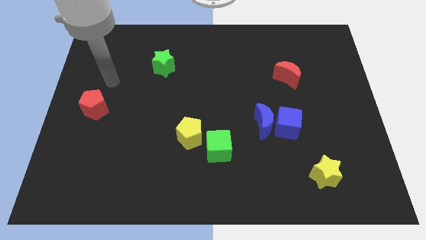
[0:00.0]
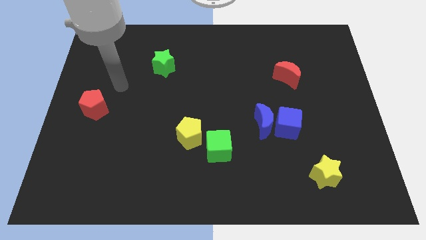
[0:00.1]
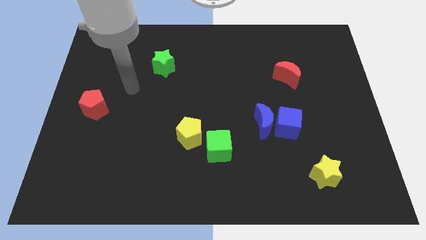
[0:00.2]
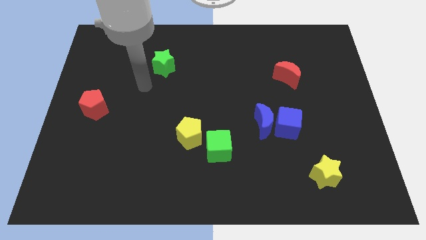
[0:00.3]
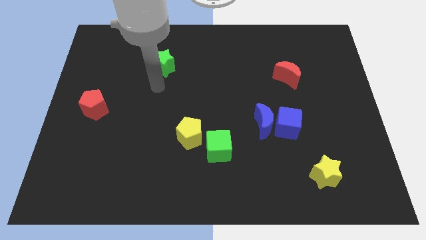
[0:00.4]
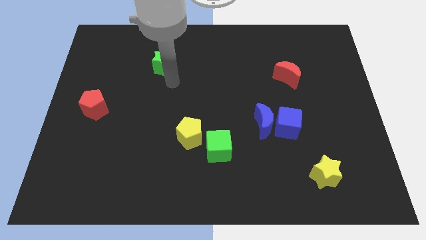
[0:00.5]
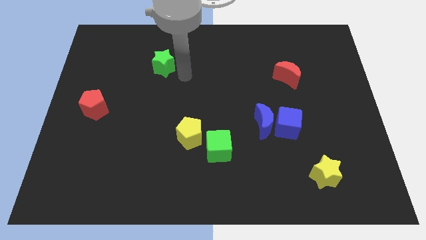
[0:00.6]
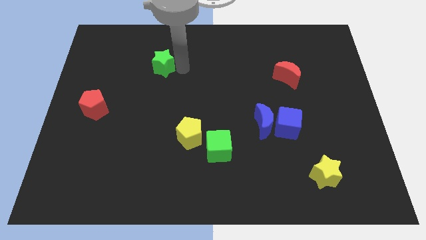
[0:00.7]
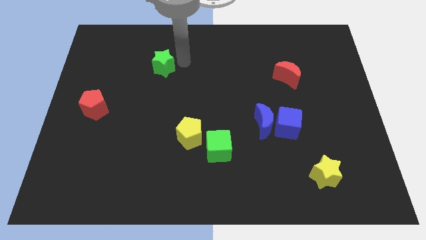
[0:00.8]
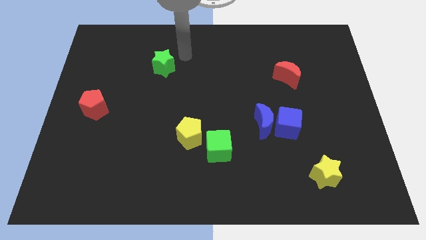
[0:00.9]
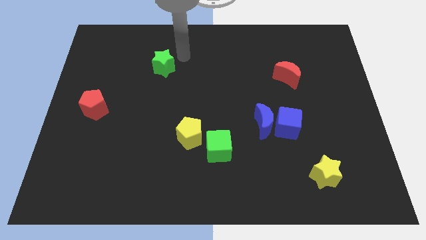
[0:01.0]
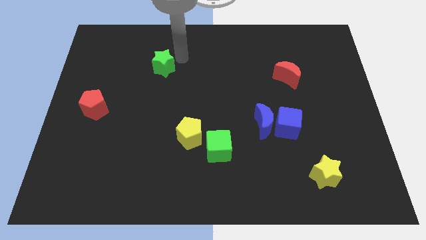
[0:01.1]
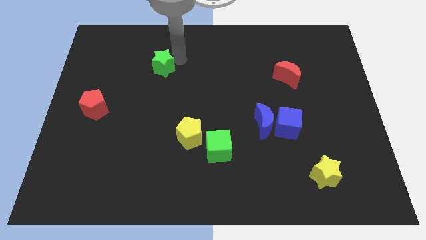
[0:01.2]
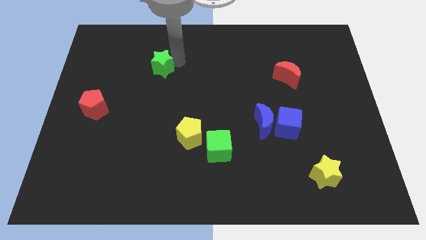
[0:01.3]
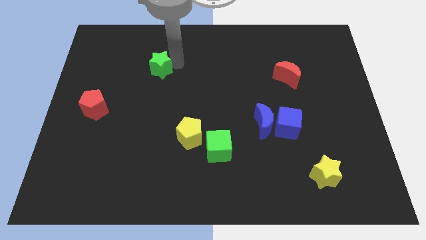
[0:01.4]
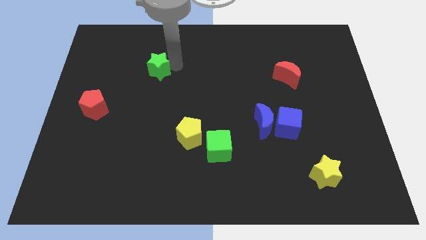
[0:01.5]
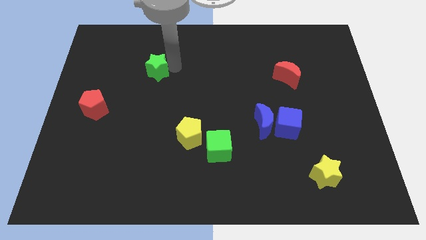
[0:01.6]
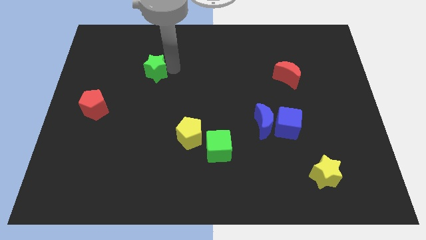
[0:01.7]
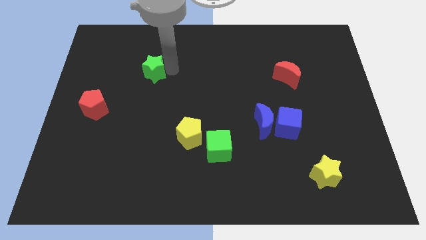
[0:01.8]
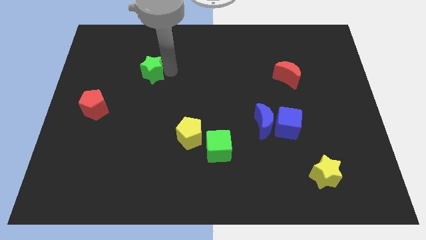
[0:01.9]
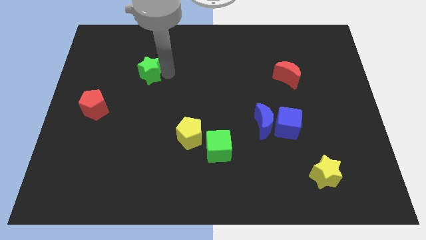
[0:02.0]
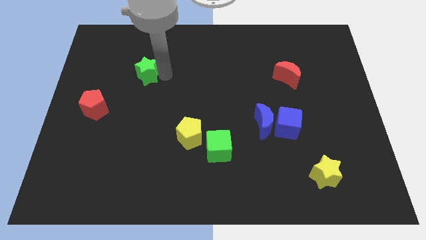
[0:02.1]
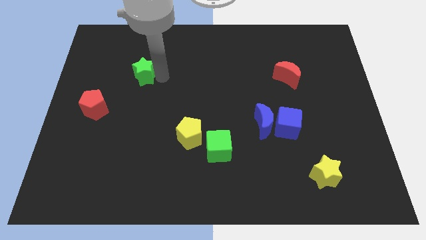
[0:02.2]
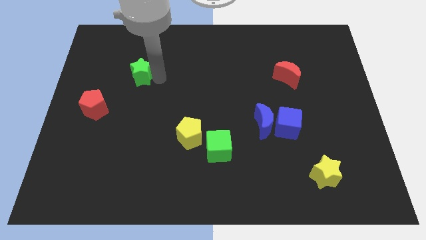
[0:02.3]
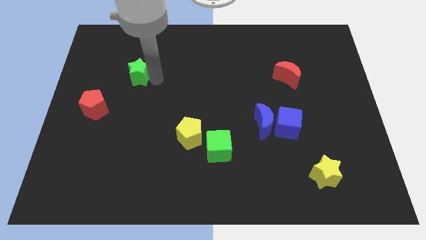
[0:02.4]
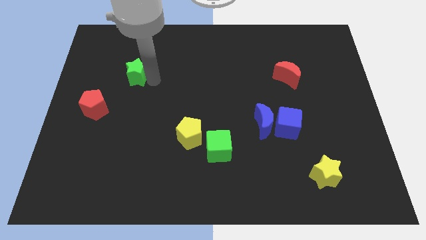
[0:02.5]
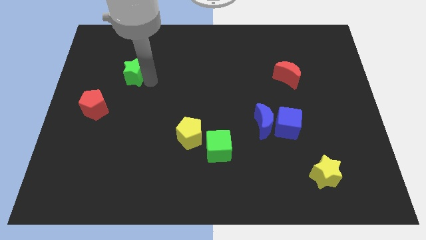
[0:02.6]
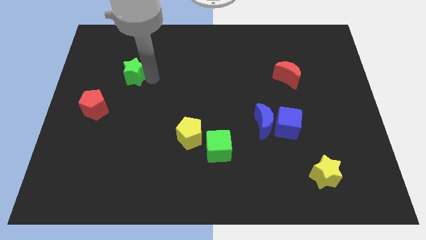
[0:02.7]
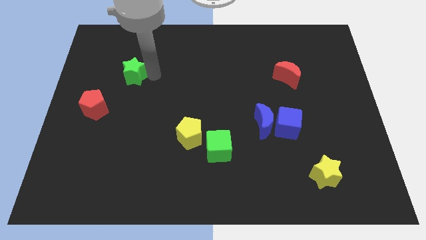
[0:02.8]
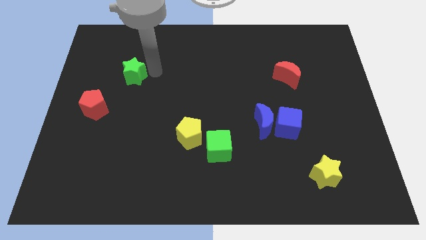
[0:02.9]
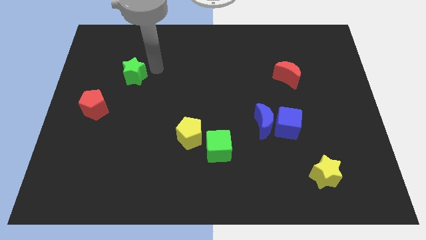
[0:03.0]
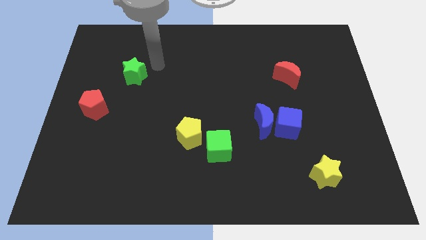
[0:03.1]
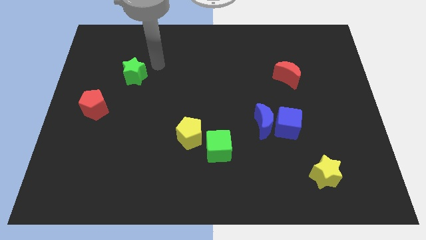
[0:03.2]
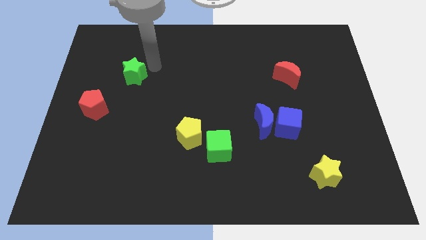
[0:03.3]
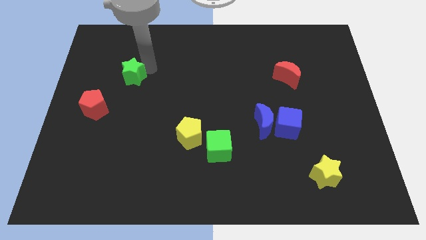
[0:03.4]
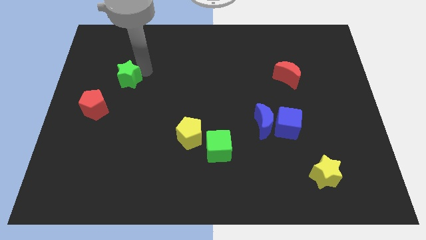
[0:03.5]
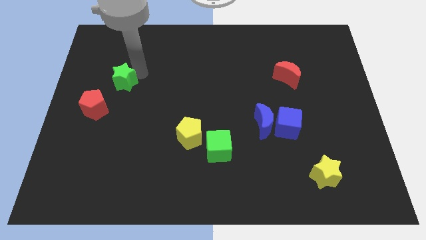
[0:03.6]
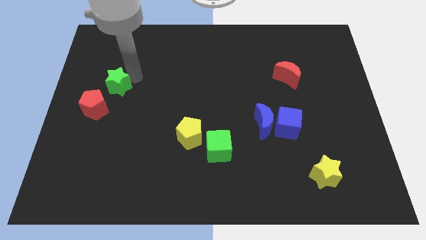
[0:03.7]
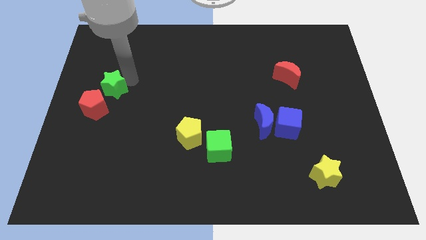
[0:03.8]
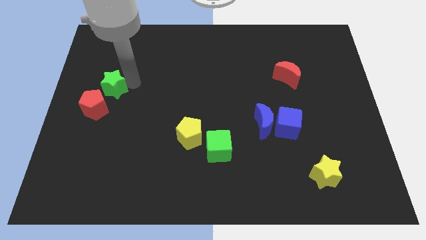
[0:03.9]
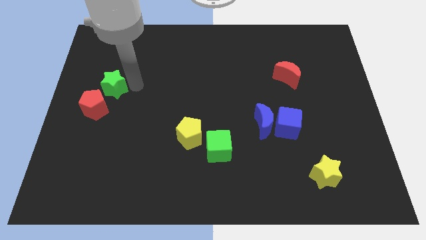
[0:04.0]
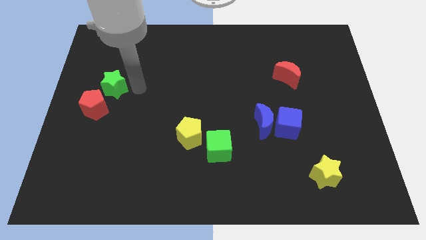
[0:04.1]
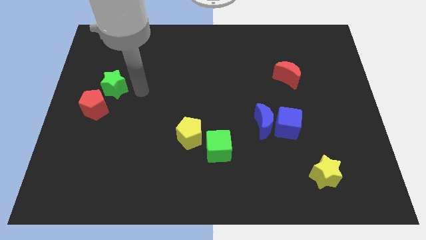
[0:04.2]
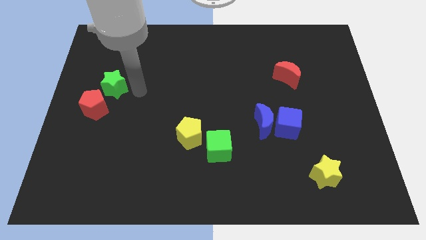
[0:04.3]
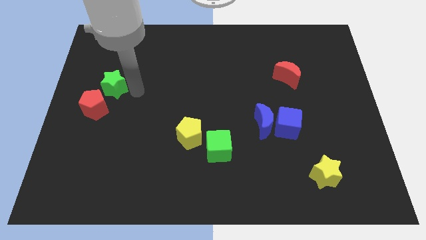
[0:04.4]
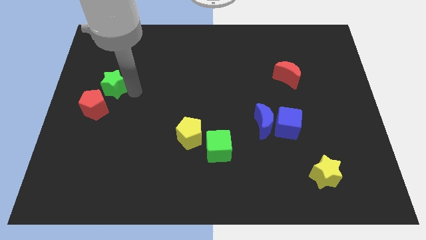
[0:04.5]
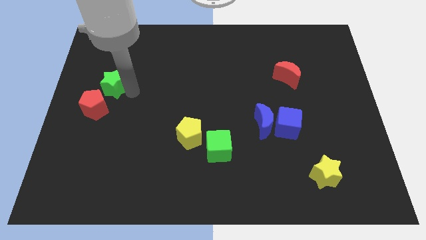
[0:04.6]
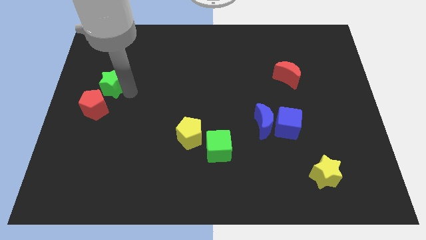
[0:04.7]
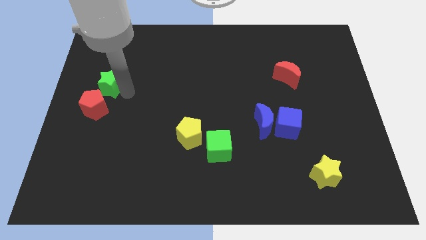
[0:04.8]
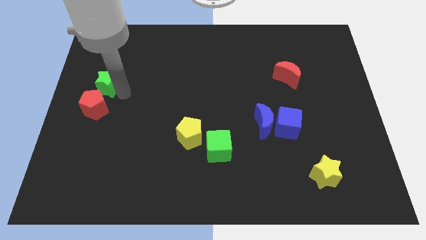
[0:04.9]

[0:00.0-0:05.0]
slide the green star to the left side of the board

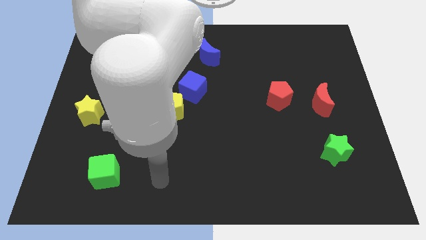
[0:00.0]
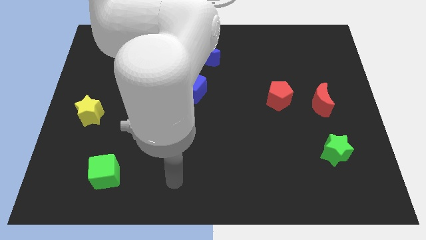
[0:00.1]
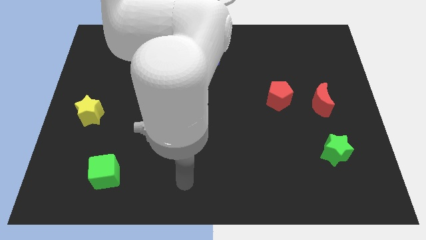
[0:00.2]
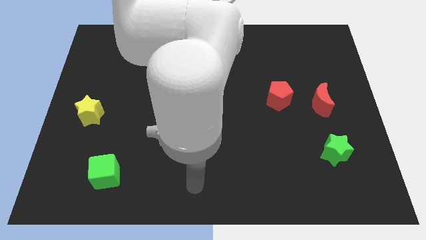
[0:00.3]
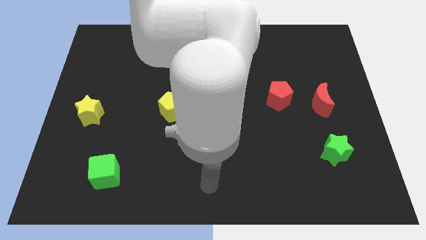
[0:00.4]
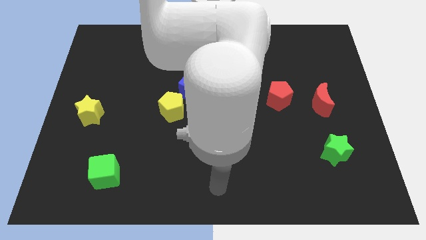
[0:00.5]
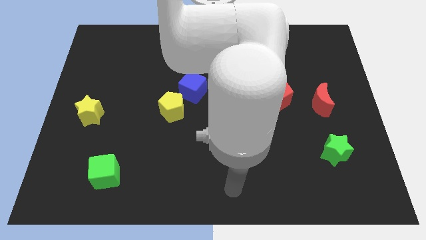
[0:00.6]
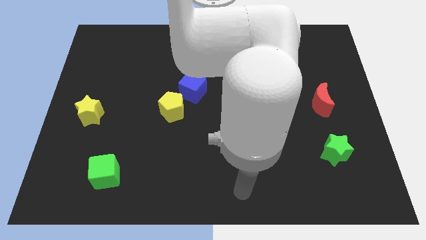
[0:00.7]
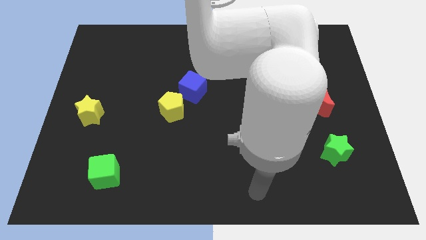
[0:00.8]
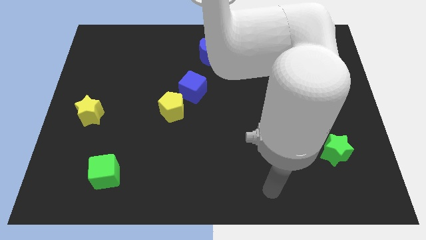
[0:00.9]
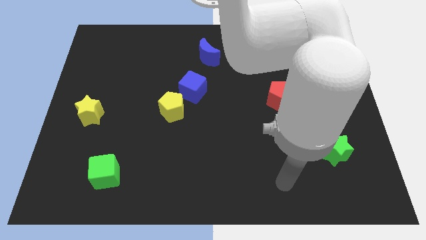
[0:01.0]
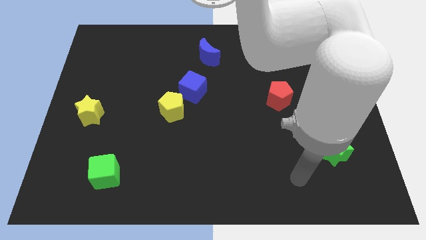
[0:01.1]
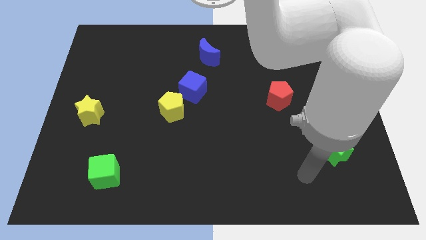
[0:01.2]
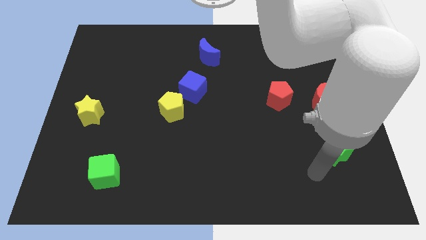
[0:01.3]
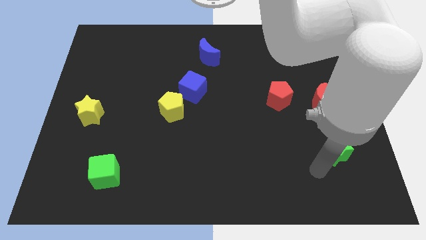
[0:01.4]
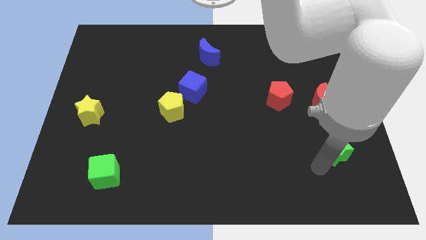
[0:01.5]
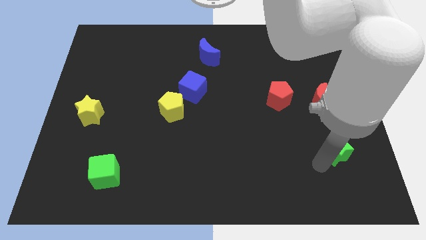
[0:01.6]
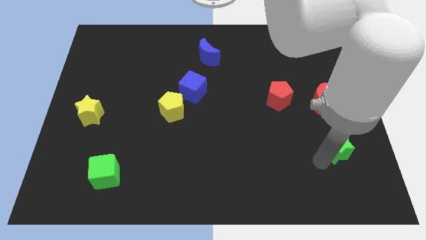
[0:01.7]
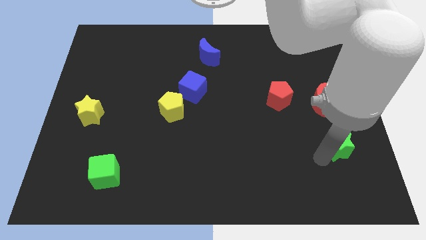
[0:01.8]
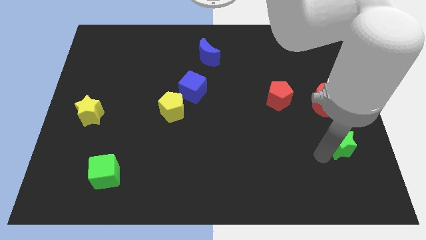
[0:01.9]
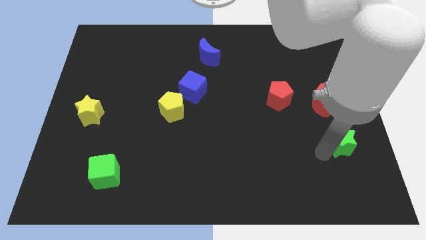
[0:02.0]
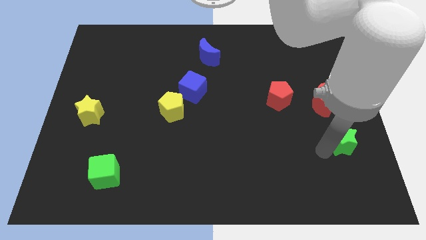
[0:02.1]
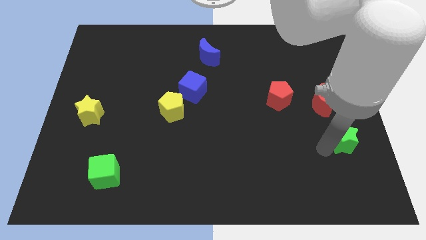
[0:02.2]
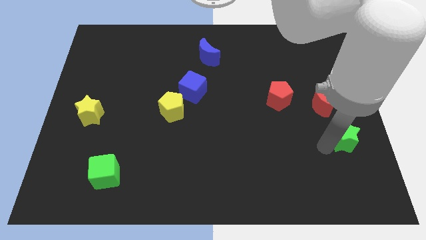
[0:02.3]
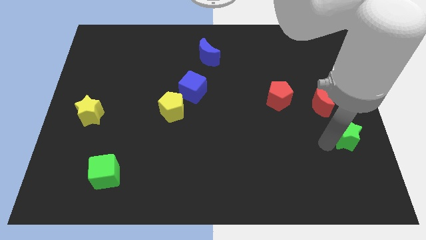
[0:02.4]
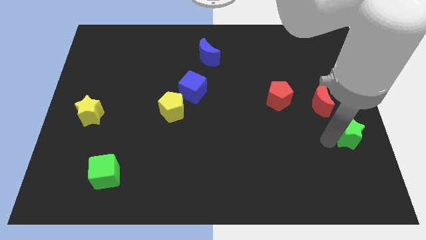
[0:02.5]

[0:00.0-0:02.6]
slide the green star to the center right
